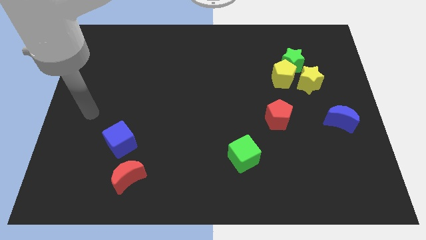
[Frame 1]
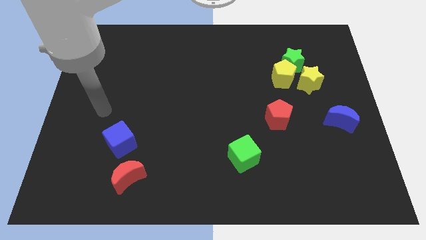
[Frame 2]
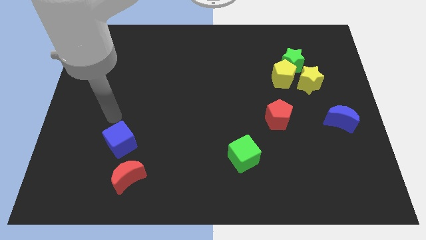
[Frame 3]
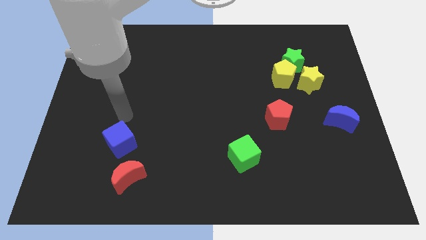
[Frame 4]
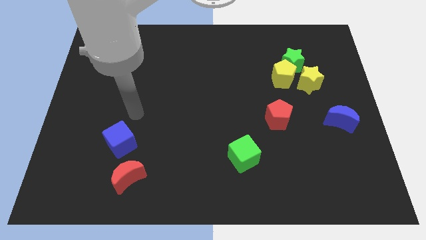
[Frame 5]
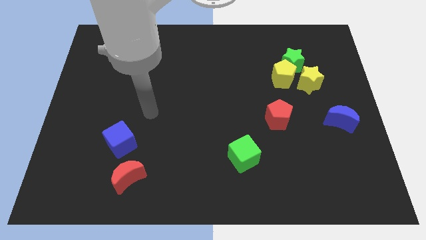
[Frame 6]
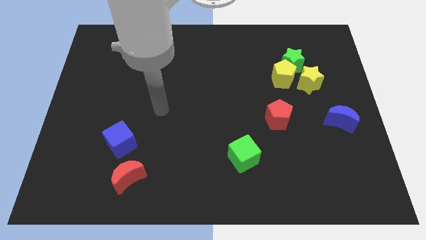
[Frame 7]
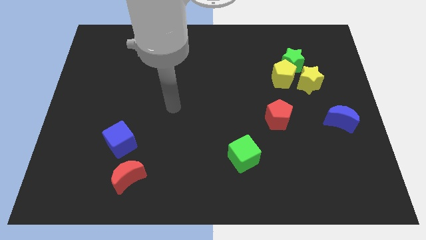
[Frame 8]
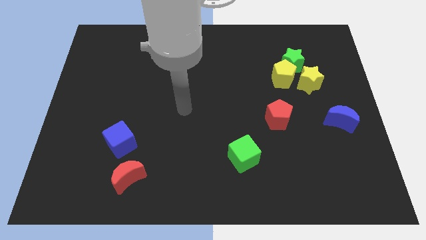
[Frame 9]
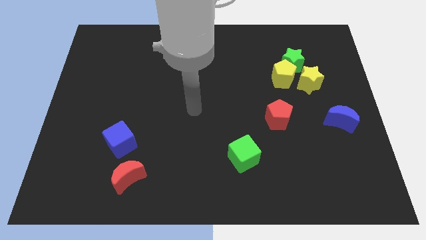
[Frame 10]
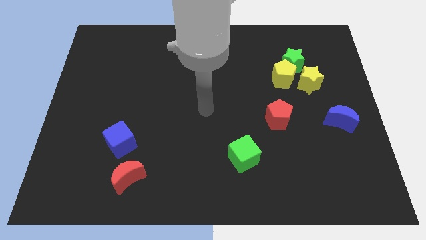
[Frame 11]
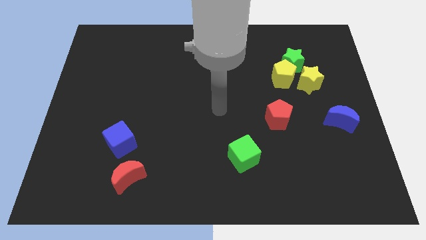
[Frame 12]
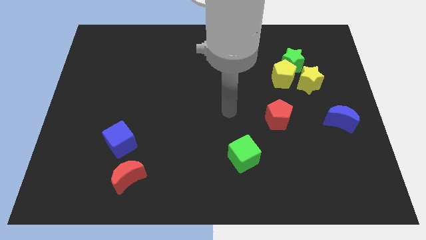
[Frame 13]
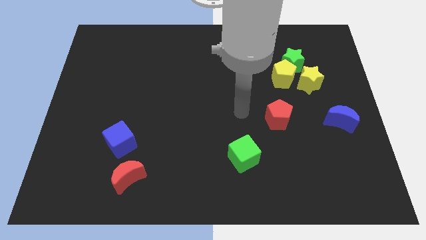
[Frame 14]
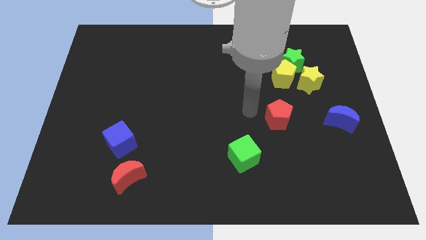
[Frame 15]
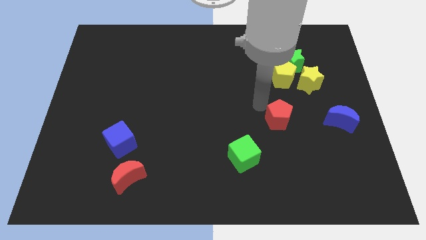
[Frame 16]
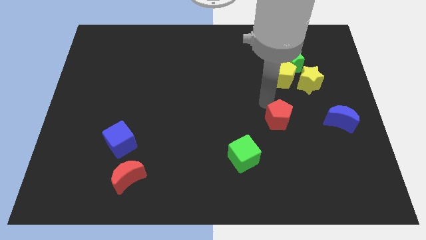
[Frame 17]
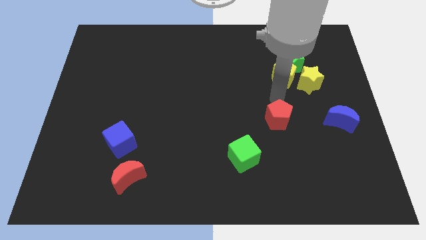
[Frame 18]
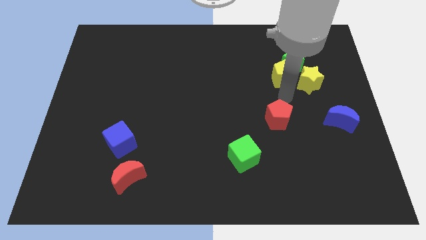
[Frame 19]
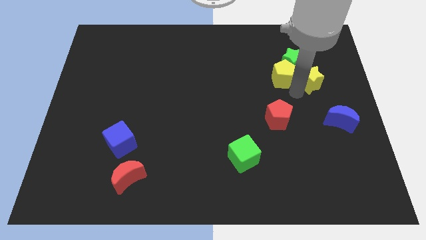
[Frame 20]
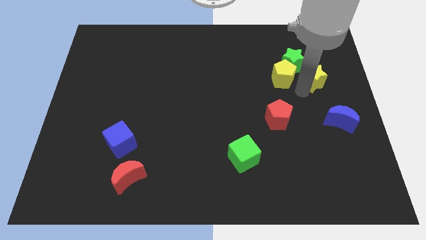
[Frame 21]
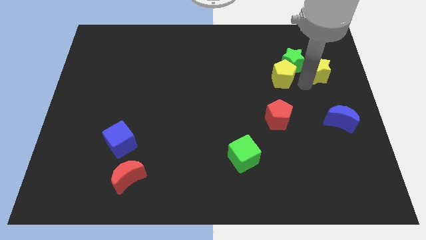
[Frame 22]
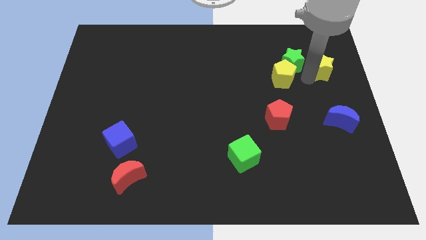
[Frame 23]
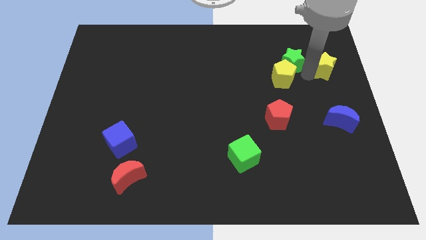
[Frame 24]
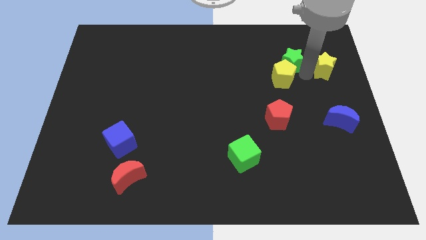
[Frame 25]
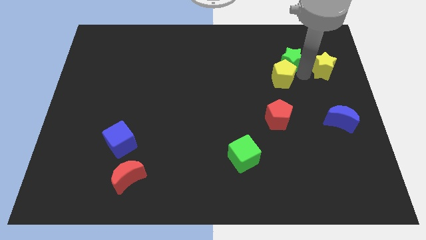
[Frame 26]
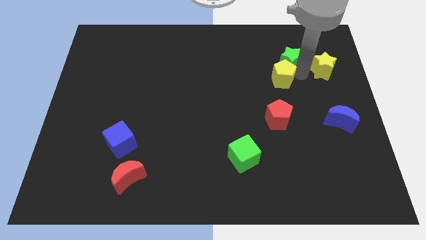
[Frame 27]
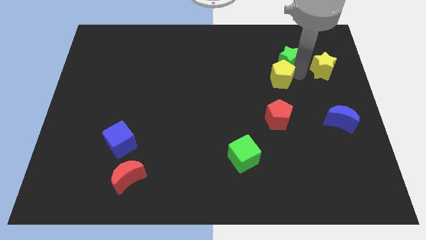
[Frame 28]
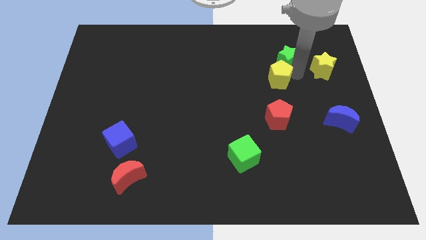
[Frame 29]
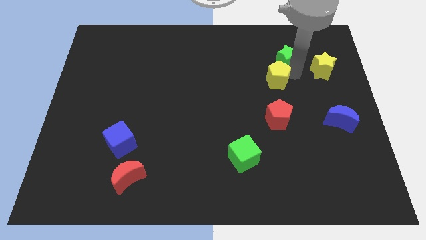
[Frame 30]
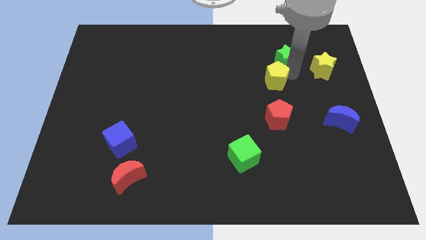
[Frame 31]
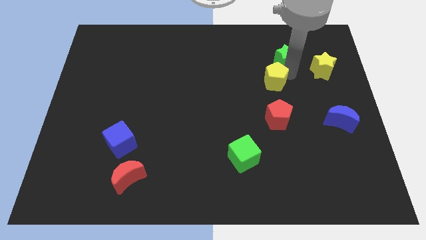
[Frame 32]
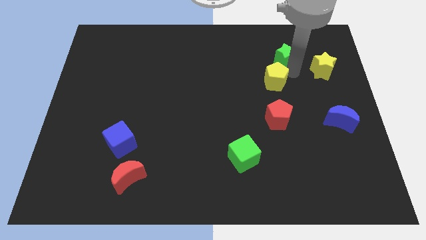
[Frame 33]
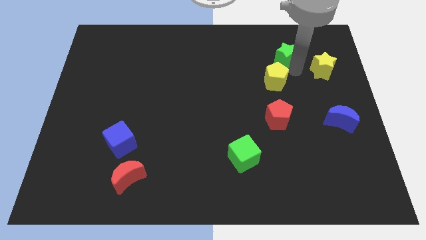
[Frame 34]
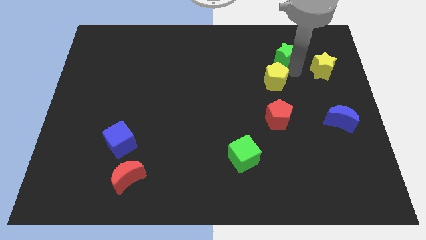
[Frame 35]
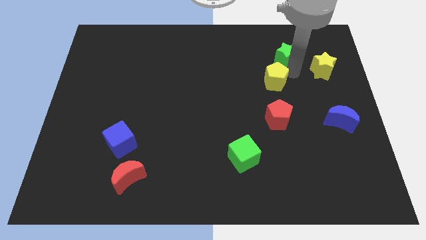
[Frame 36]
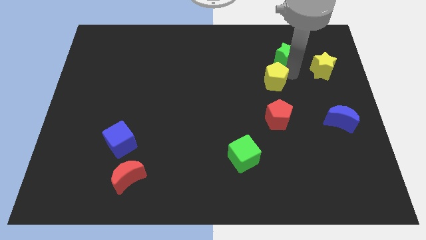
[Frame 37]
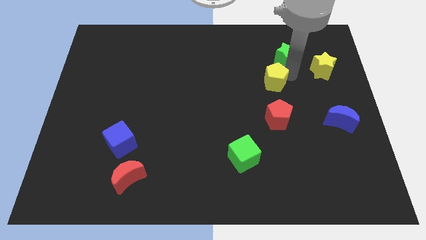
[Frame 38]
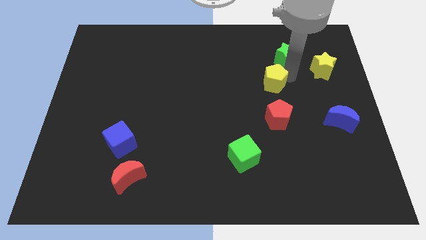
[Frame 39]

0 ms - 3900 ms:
separate the yellow pentagon from the green star and yellow star

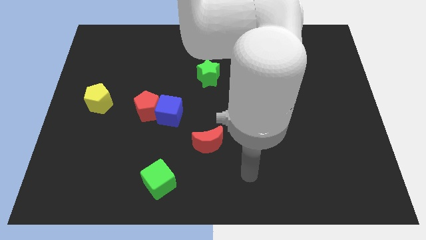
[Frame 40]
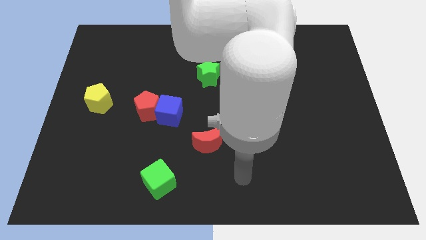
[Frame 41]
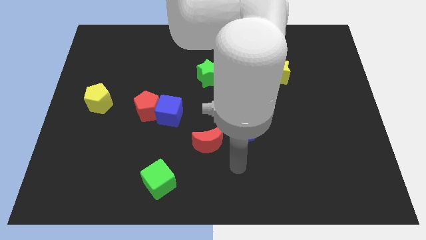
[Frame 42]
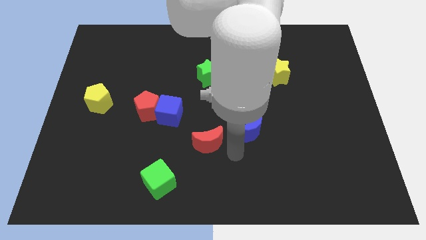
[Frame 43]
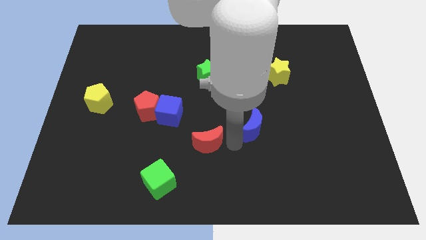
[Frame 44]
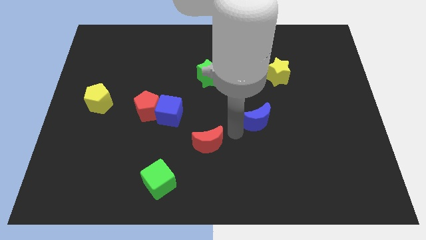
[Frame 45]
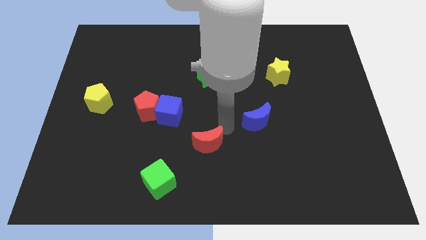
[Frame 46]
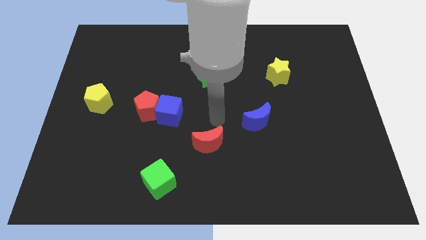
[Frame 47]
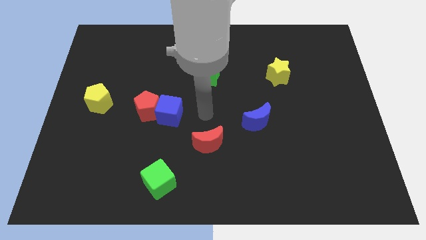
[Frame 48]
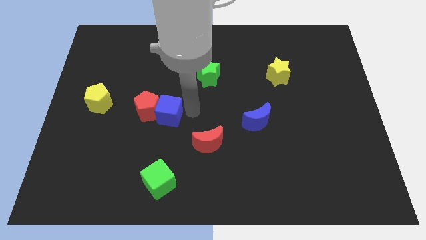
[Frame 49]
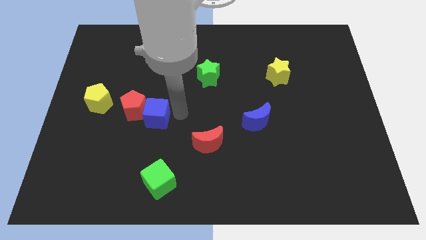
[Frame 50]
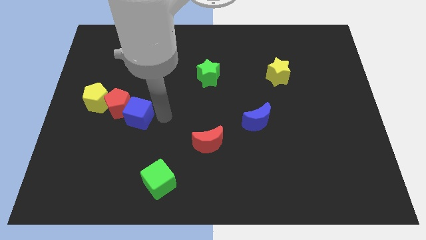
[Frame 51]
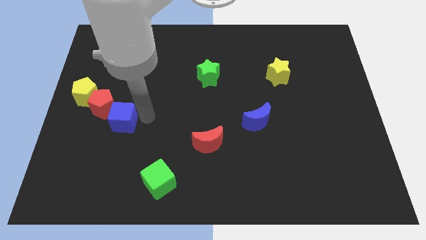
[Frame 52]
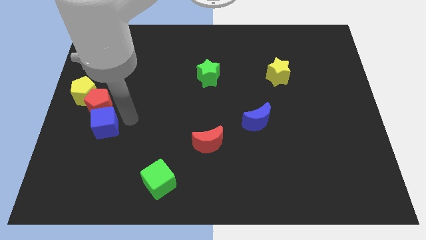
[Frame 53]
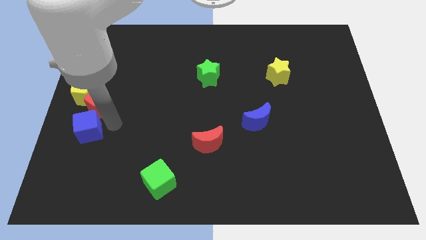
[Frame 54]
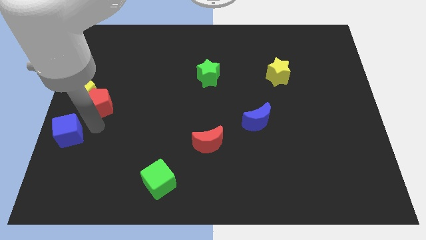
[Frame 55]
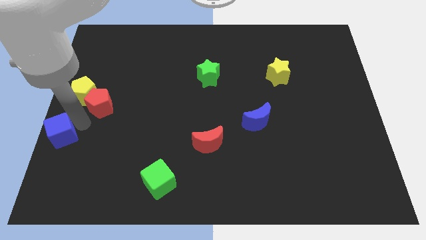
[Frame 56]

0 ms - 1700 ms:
move the red pentagon away from the blue cube

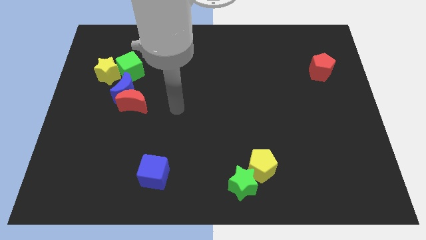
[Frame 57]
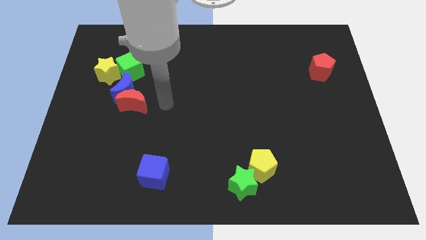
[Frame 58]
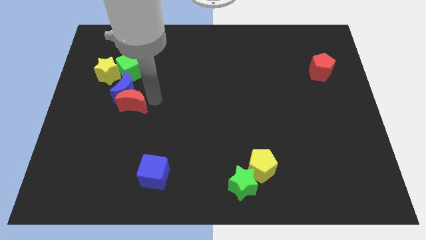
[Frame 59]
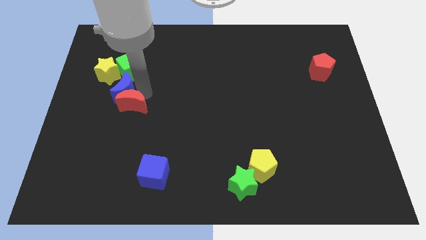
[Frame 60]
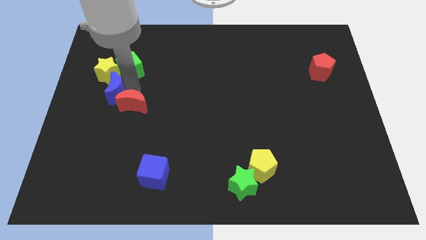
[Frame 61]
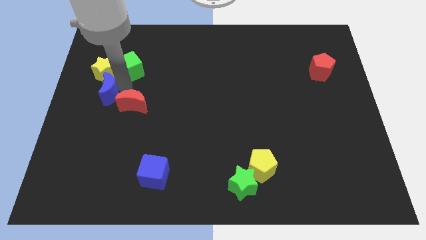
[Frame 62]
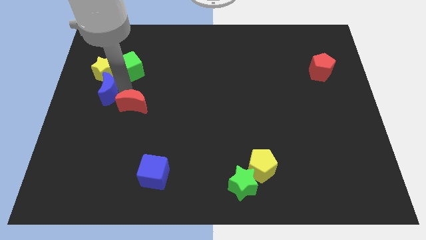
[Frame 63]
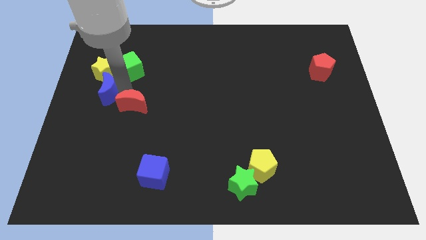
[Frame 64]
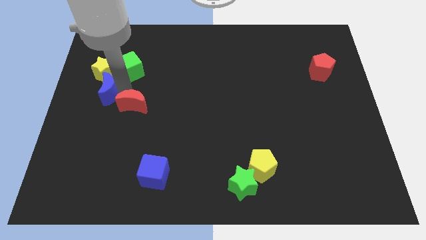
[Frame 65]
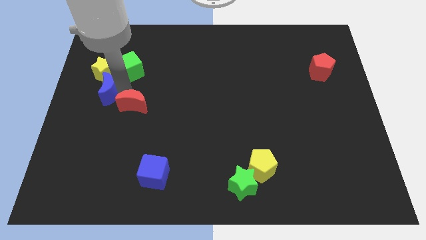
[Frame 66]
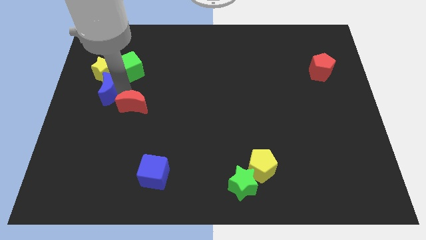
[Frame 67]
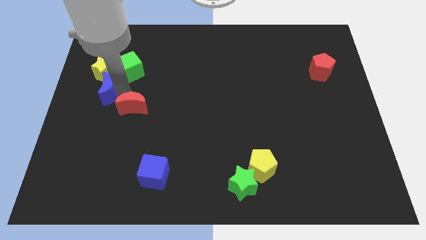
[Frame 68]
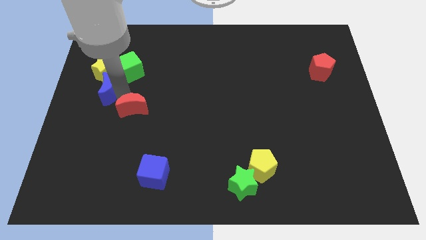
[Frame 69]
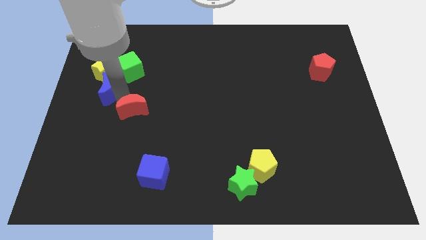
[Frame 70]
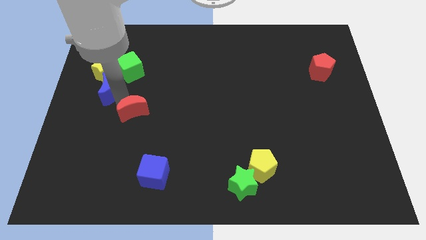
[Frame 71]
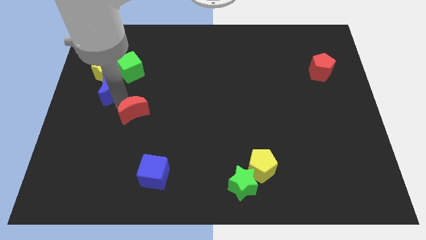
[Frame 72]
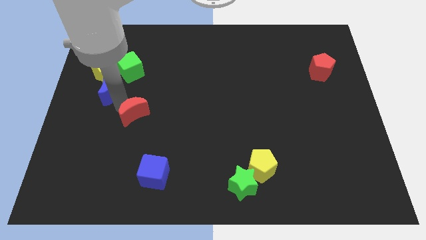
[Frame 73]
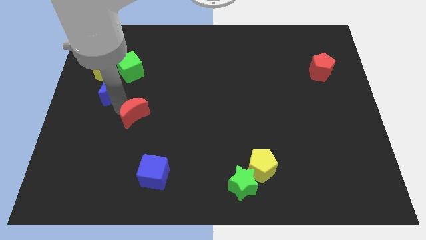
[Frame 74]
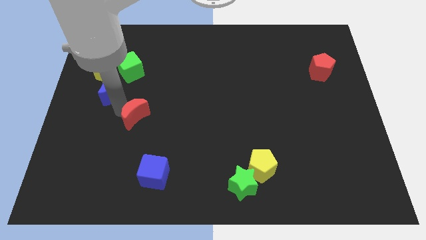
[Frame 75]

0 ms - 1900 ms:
separate the red moon from the blue moon

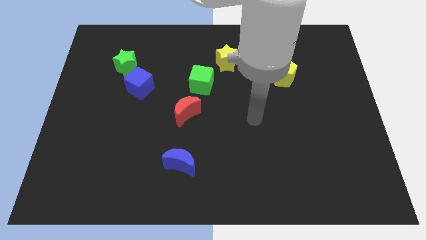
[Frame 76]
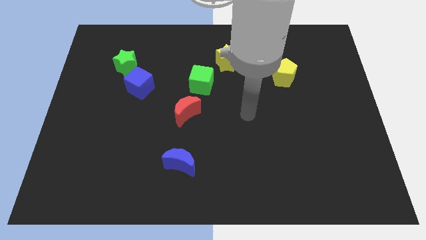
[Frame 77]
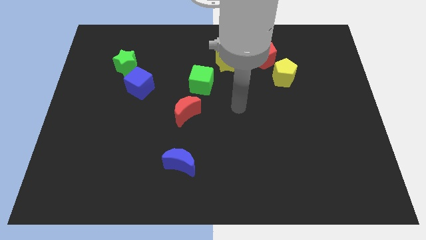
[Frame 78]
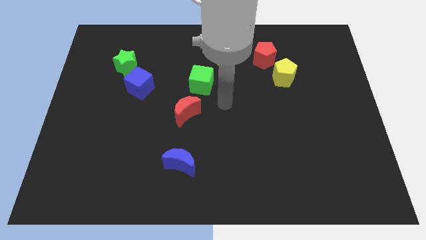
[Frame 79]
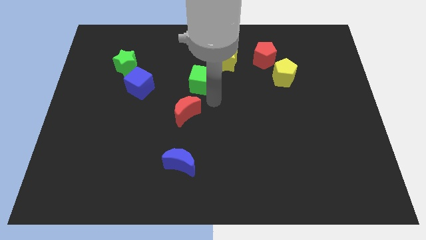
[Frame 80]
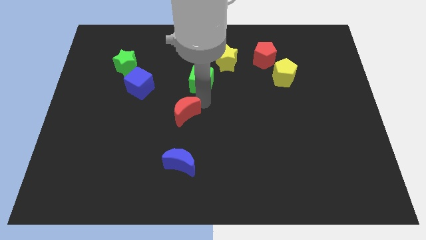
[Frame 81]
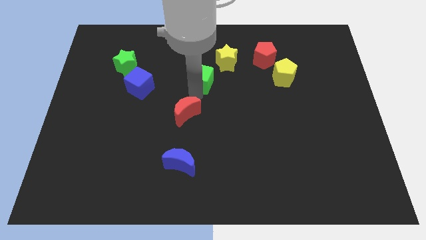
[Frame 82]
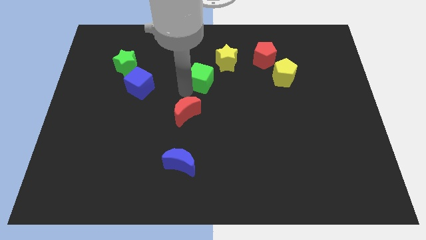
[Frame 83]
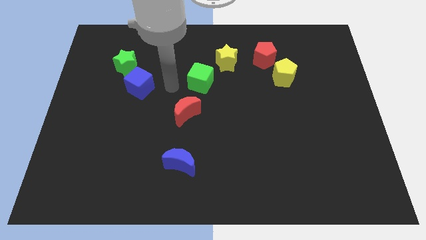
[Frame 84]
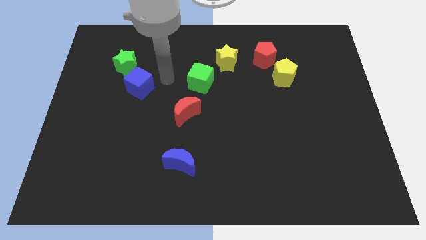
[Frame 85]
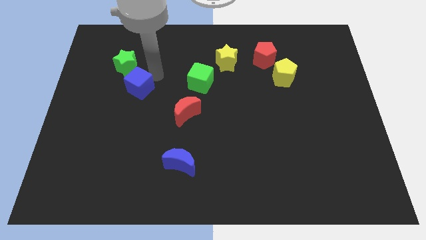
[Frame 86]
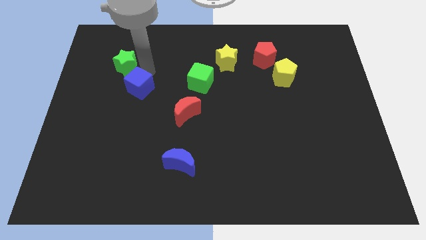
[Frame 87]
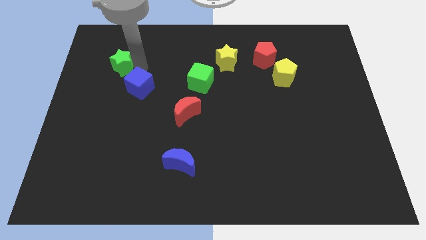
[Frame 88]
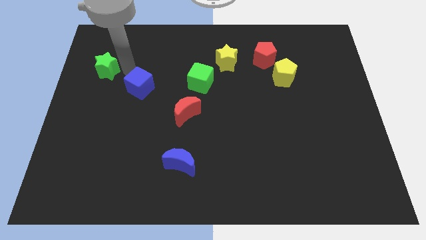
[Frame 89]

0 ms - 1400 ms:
move the blue cube away from the green star

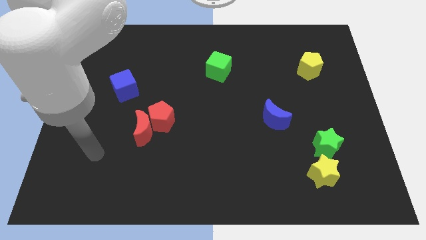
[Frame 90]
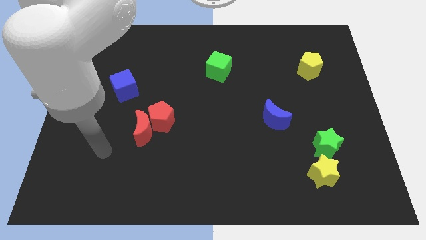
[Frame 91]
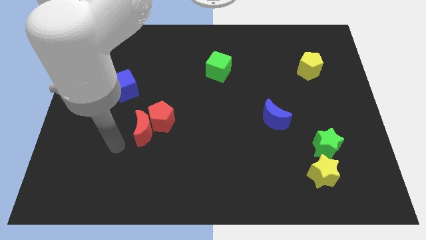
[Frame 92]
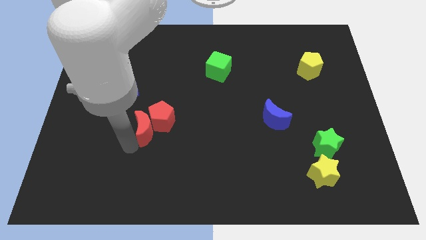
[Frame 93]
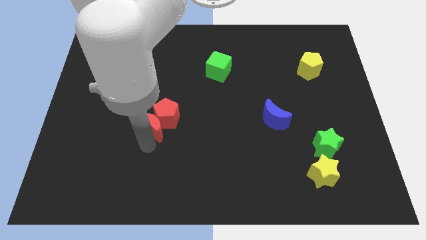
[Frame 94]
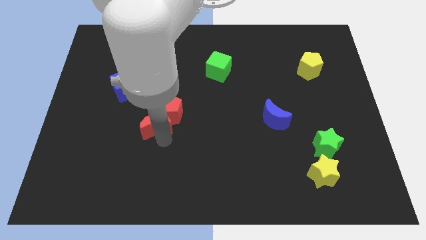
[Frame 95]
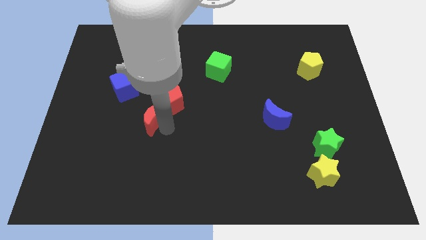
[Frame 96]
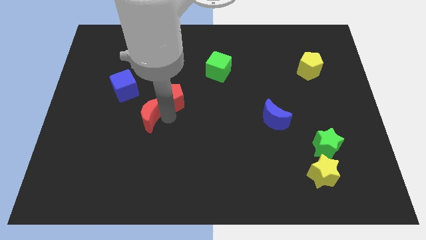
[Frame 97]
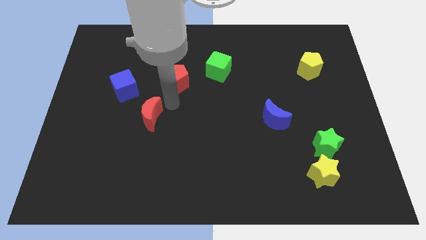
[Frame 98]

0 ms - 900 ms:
pull the red moon apart from the red pentagon
